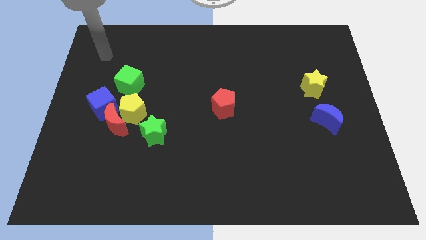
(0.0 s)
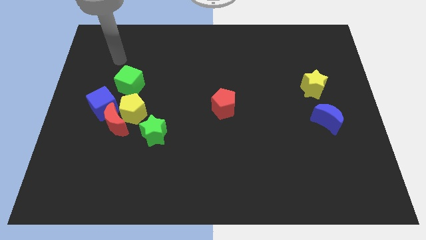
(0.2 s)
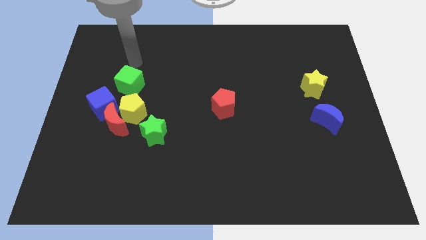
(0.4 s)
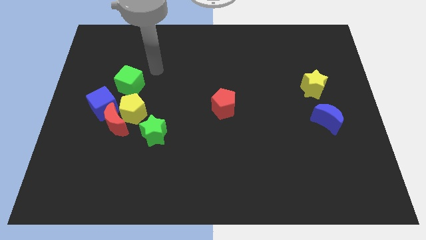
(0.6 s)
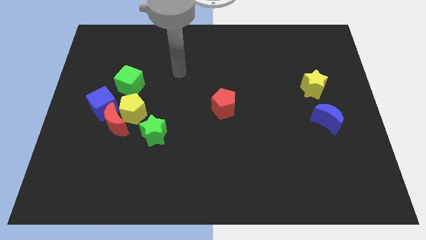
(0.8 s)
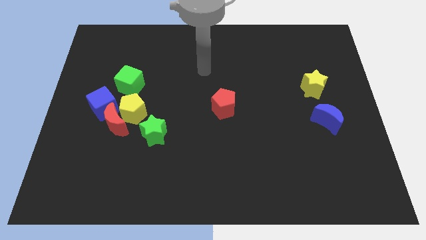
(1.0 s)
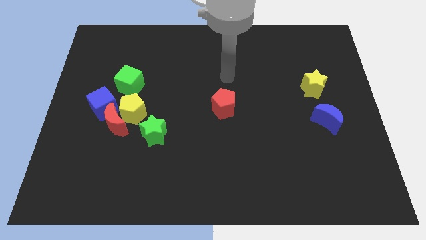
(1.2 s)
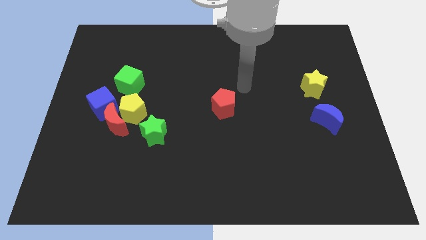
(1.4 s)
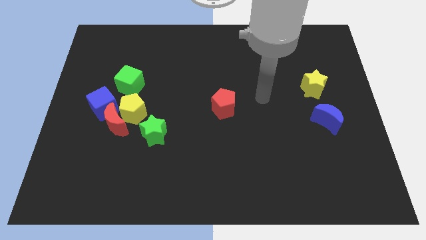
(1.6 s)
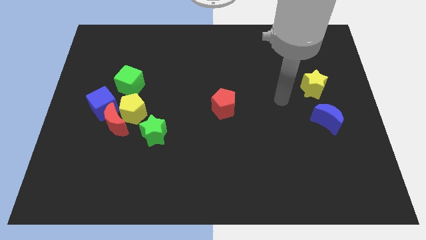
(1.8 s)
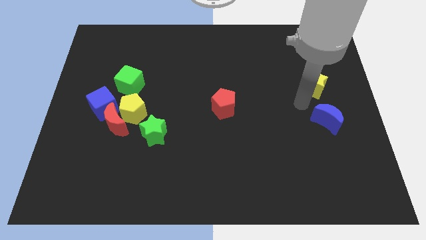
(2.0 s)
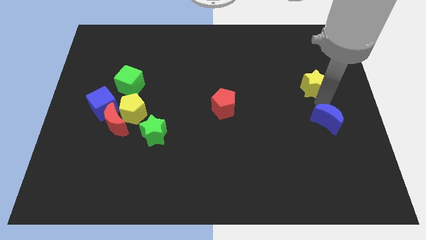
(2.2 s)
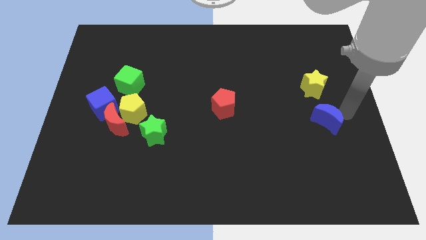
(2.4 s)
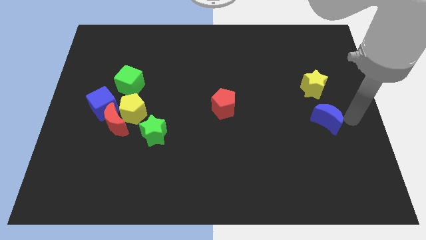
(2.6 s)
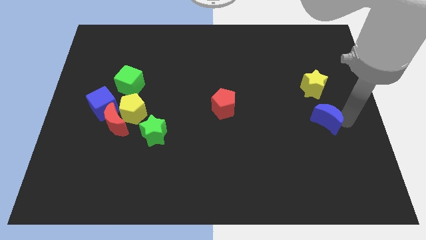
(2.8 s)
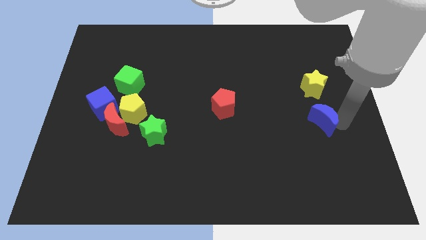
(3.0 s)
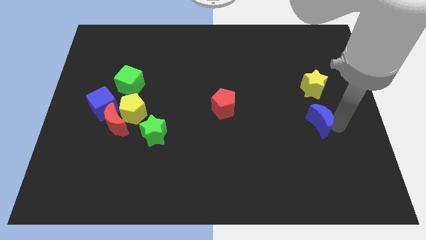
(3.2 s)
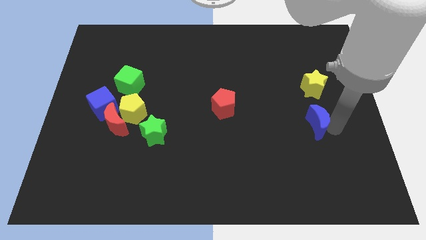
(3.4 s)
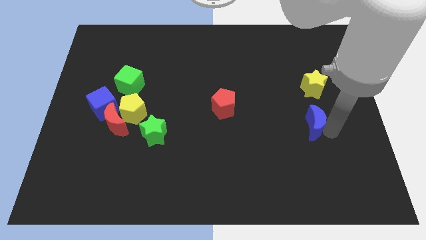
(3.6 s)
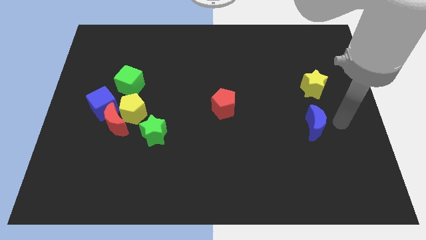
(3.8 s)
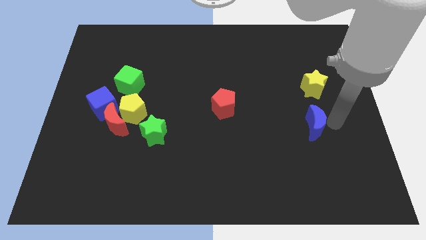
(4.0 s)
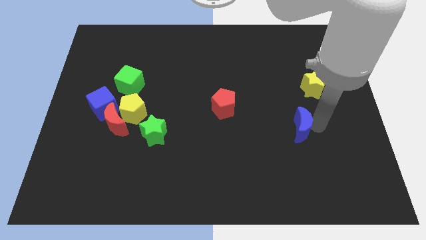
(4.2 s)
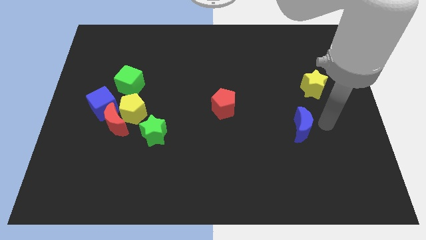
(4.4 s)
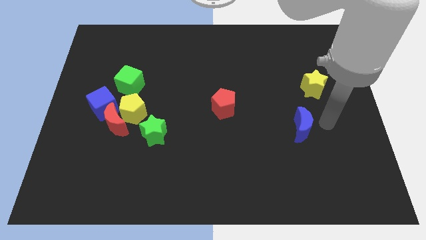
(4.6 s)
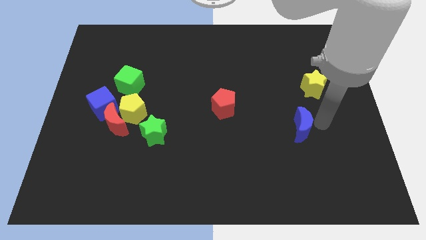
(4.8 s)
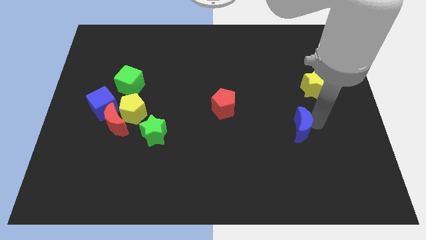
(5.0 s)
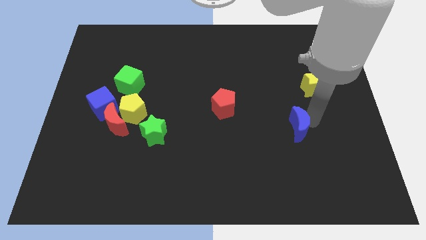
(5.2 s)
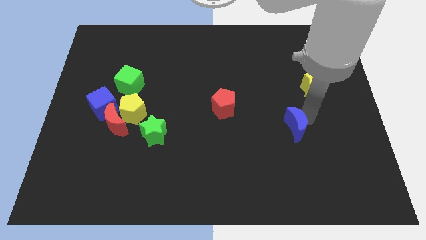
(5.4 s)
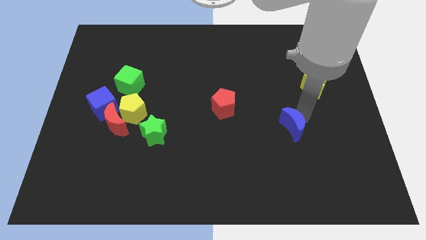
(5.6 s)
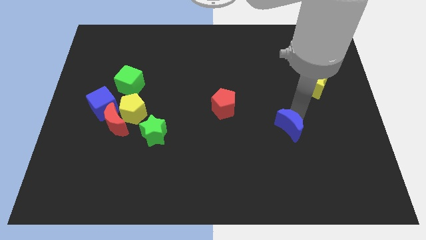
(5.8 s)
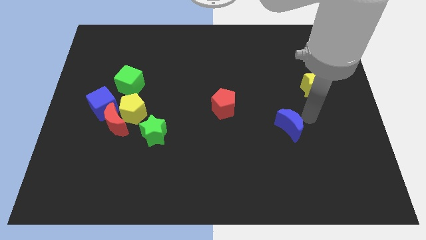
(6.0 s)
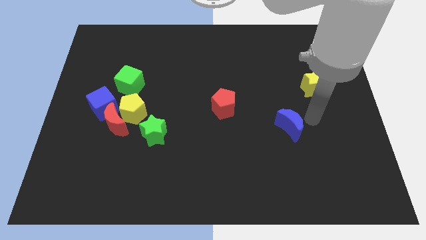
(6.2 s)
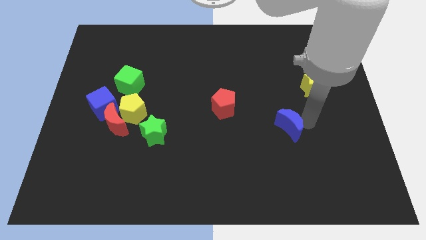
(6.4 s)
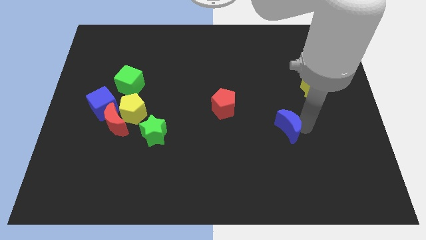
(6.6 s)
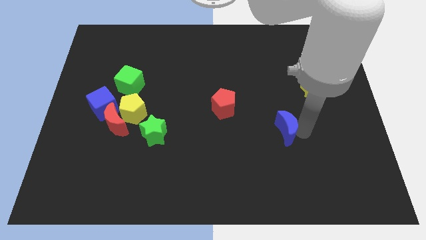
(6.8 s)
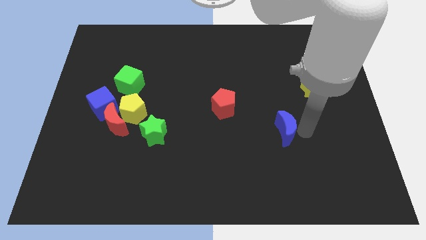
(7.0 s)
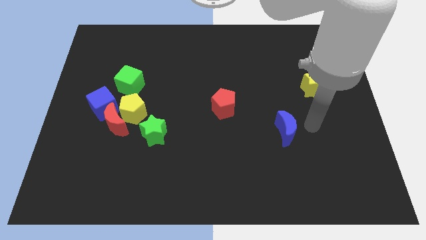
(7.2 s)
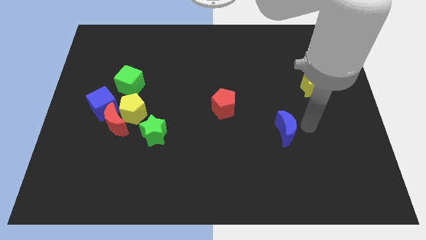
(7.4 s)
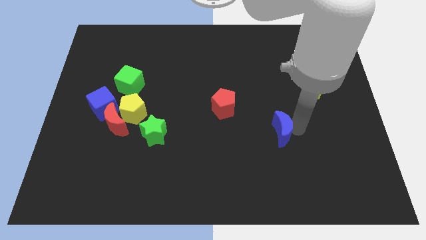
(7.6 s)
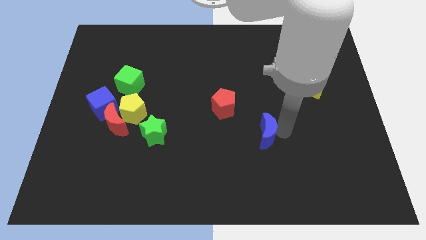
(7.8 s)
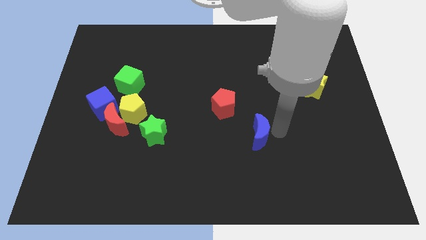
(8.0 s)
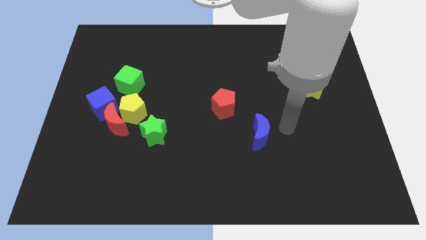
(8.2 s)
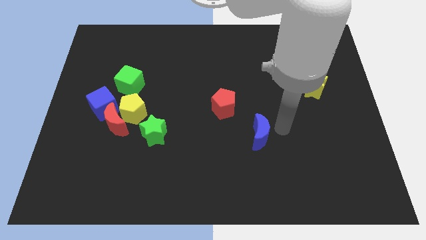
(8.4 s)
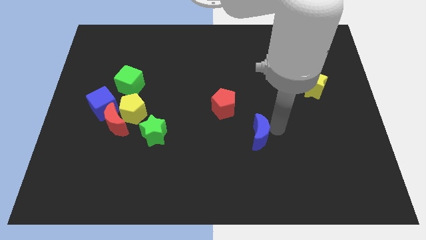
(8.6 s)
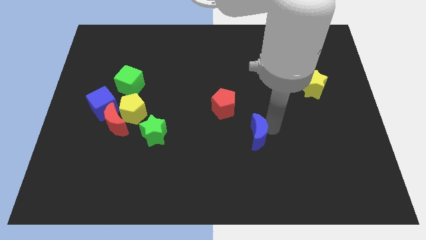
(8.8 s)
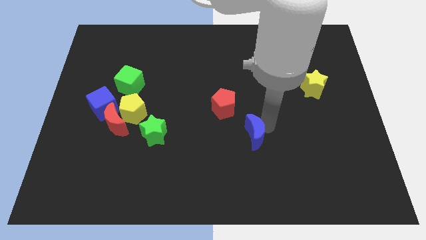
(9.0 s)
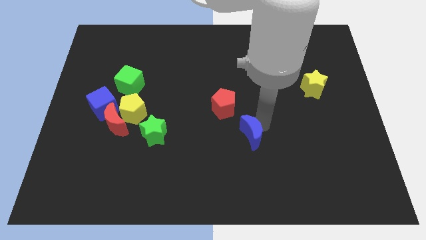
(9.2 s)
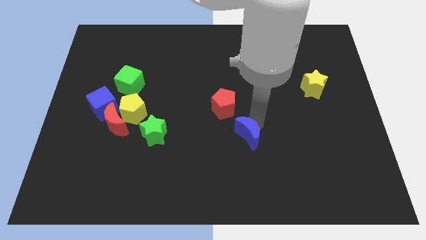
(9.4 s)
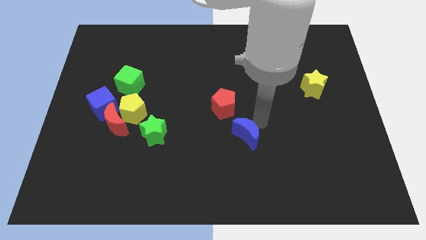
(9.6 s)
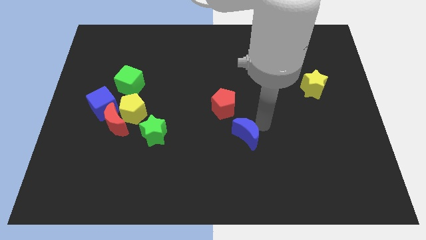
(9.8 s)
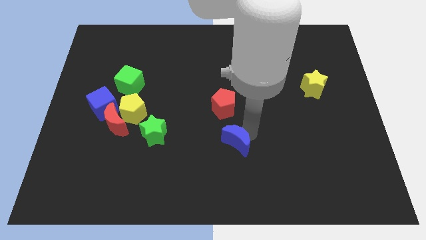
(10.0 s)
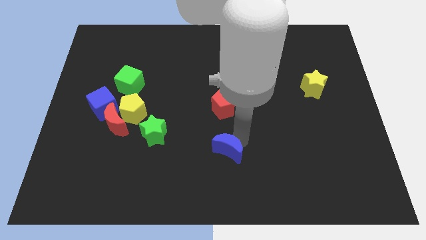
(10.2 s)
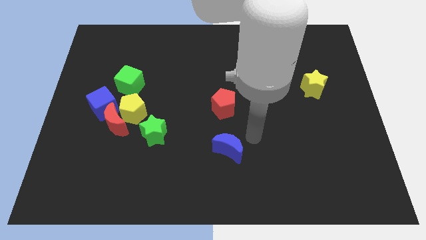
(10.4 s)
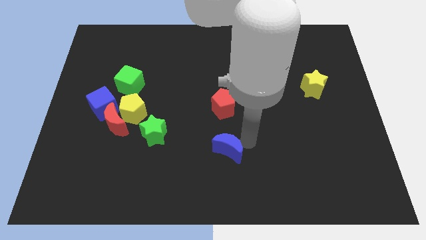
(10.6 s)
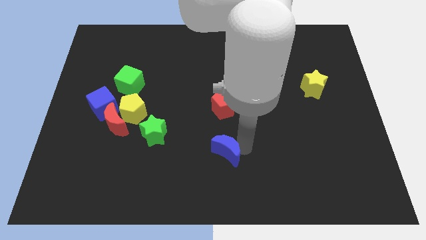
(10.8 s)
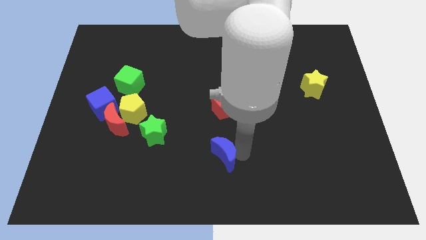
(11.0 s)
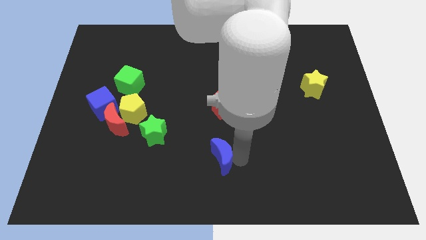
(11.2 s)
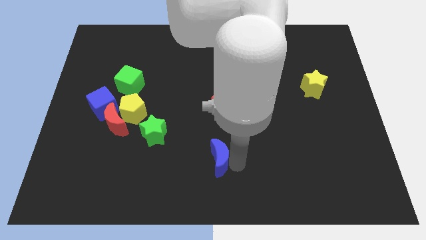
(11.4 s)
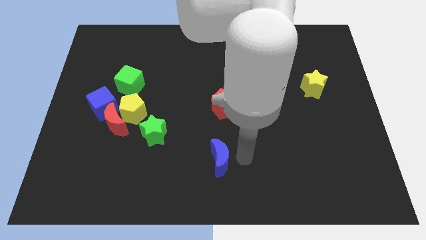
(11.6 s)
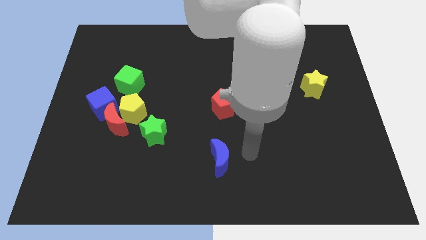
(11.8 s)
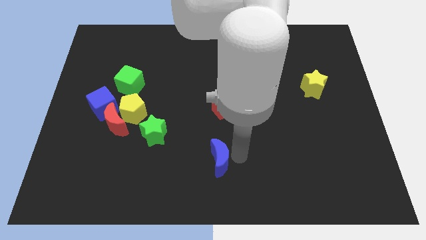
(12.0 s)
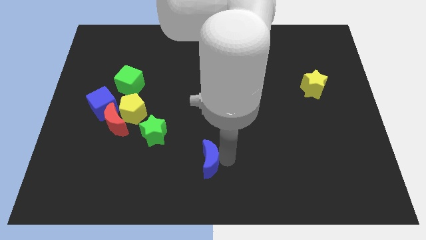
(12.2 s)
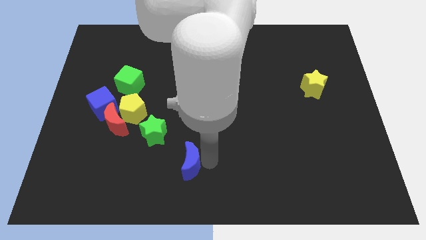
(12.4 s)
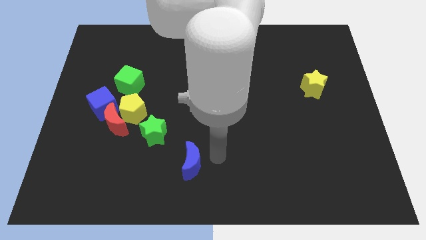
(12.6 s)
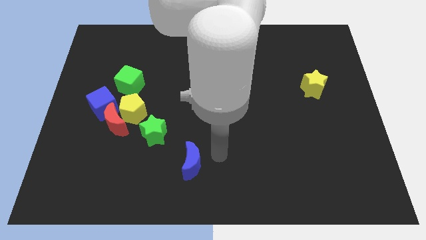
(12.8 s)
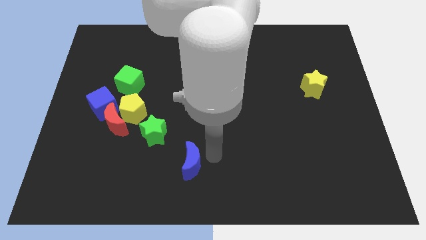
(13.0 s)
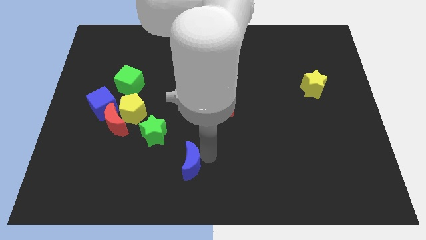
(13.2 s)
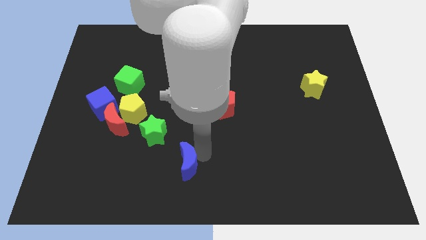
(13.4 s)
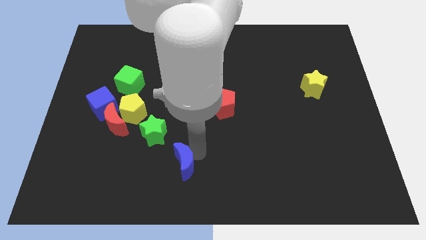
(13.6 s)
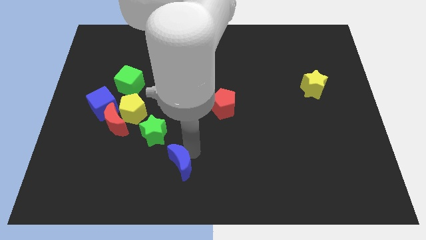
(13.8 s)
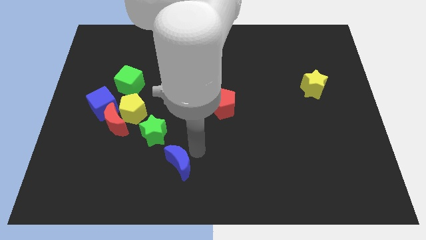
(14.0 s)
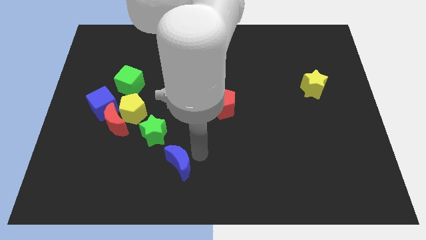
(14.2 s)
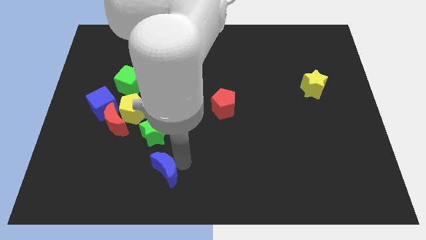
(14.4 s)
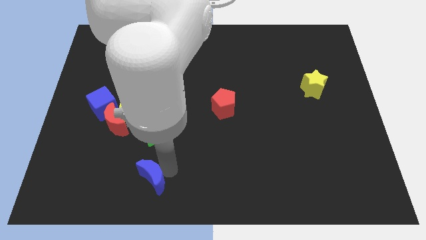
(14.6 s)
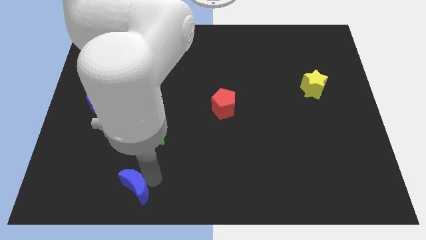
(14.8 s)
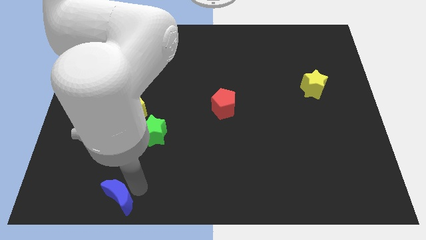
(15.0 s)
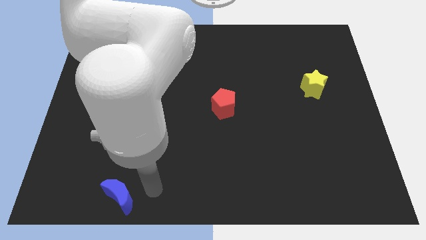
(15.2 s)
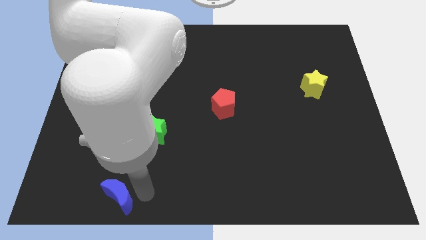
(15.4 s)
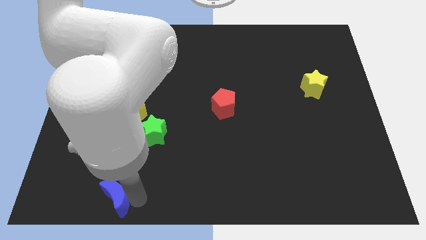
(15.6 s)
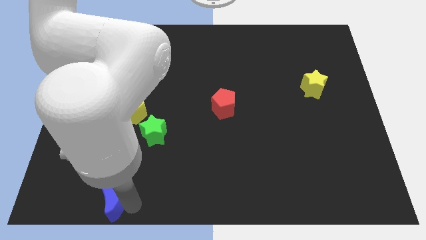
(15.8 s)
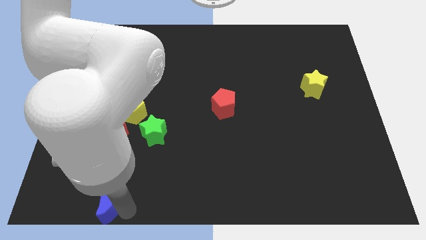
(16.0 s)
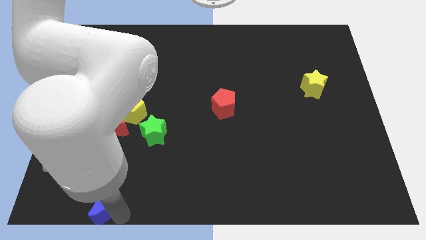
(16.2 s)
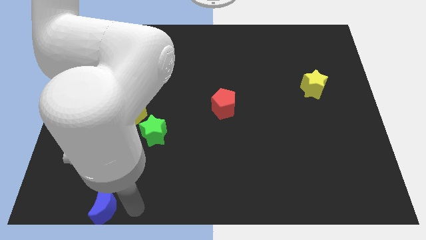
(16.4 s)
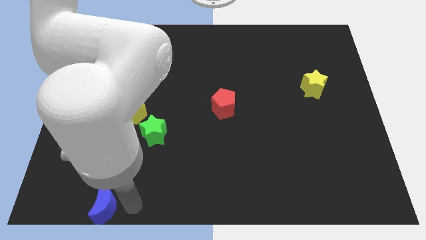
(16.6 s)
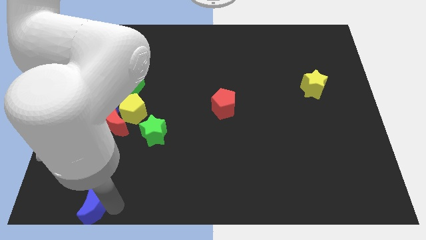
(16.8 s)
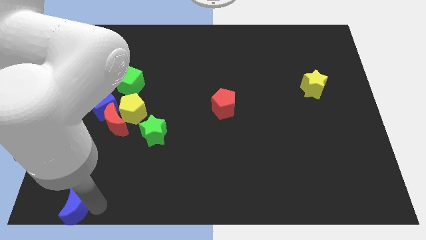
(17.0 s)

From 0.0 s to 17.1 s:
slide the blue moon to the lower left corner
